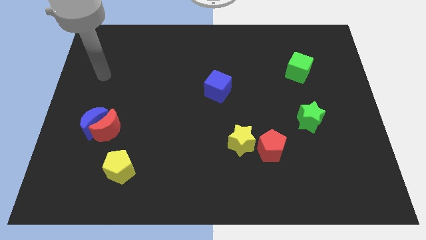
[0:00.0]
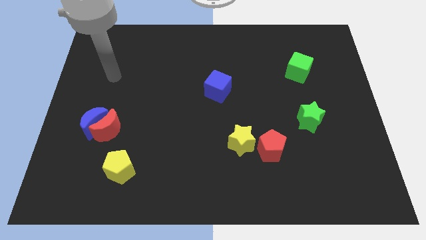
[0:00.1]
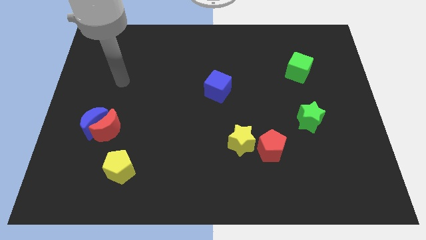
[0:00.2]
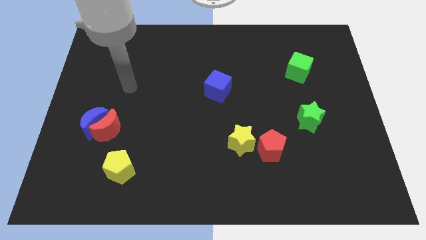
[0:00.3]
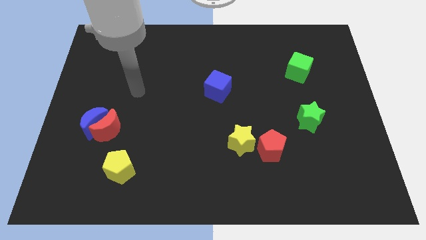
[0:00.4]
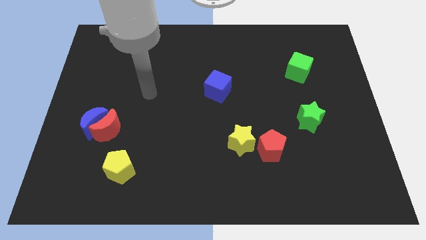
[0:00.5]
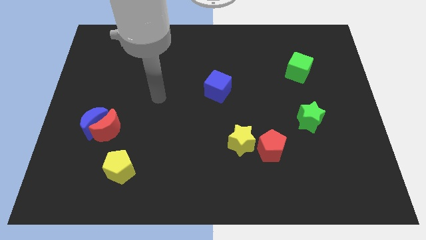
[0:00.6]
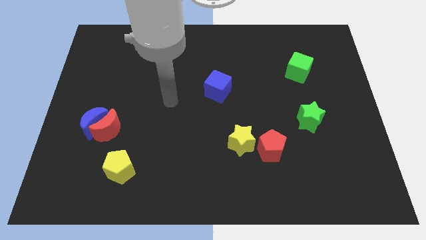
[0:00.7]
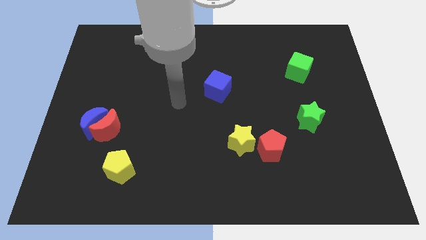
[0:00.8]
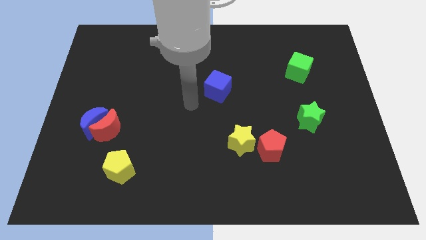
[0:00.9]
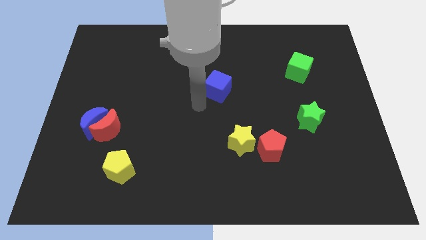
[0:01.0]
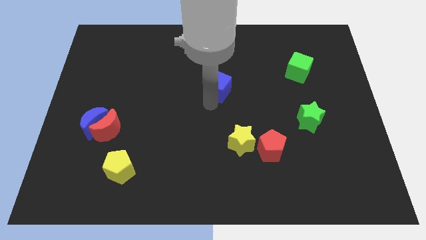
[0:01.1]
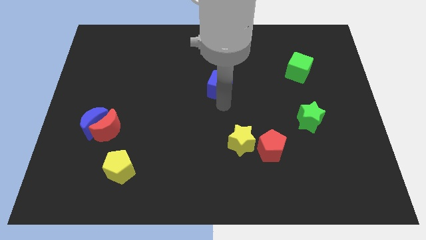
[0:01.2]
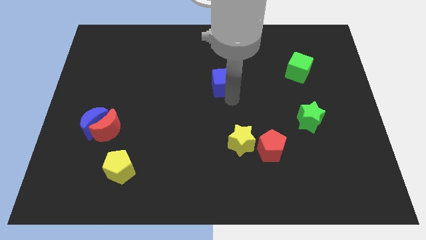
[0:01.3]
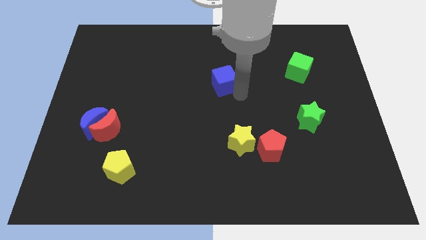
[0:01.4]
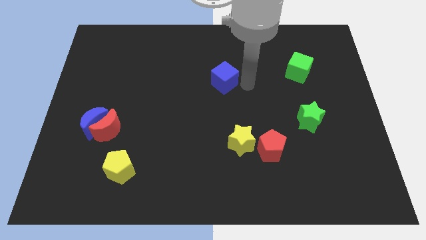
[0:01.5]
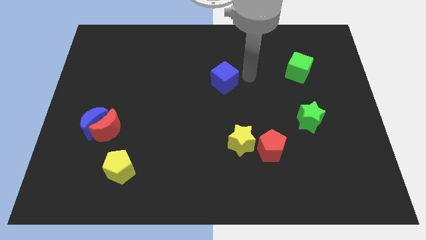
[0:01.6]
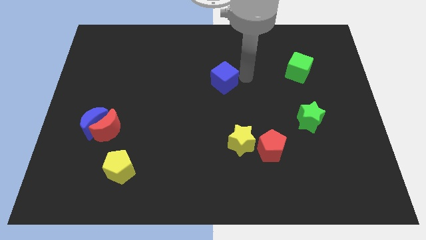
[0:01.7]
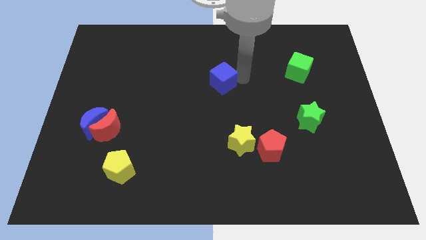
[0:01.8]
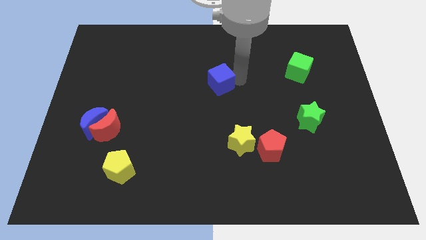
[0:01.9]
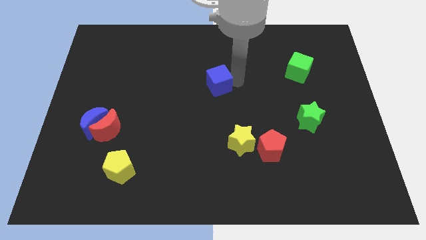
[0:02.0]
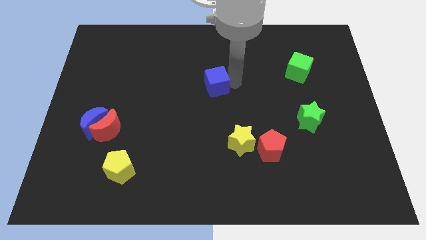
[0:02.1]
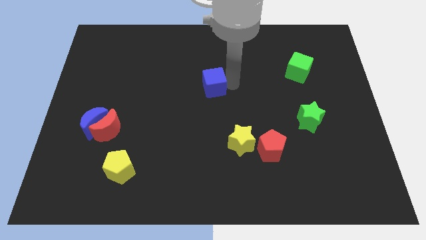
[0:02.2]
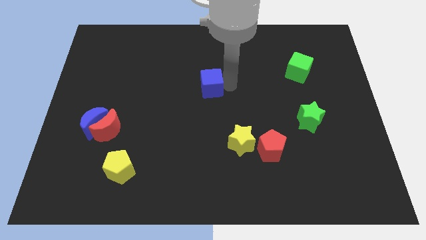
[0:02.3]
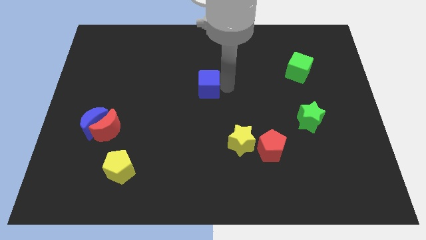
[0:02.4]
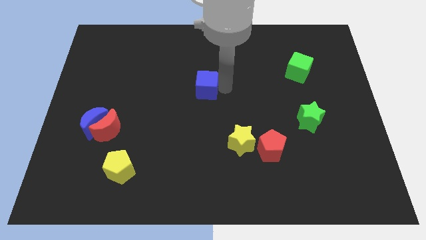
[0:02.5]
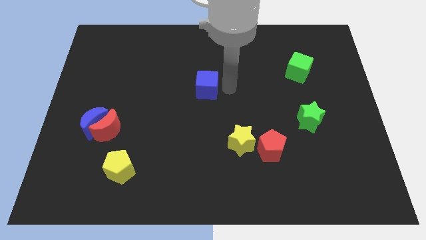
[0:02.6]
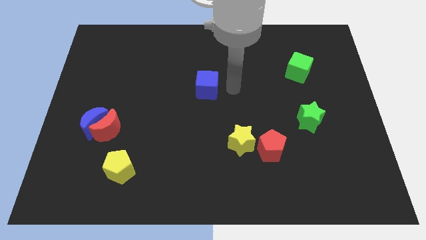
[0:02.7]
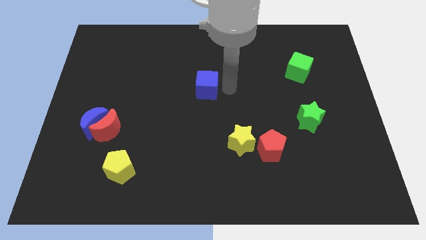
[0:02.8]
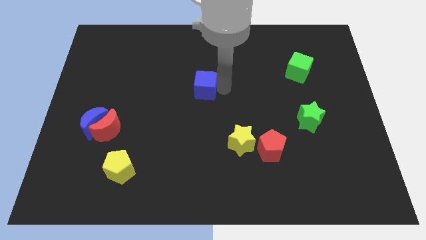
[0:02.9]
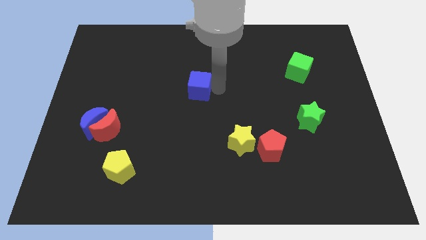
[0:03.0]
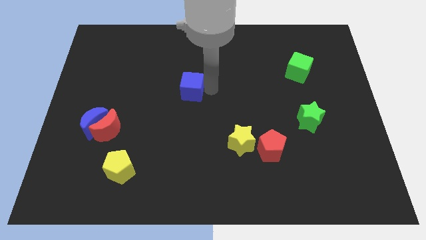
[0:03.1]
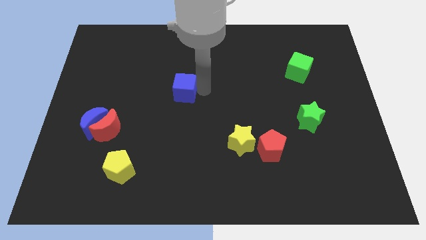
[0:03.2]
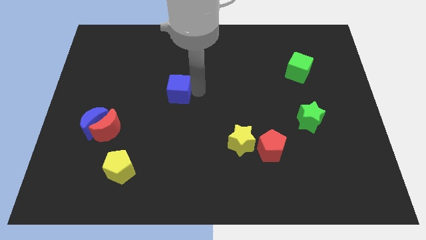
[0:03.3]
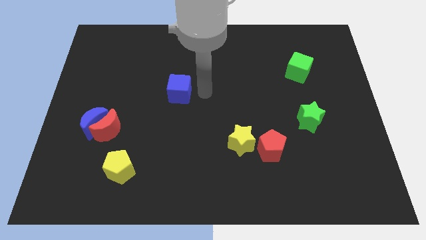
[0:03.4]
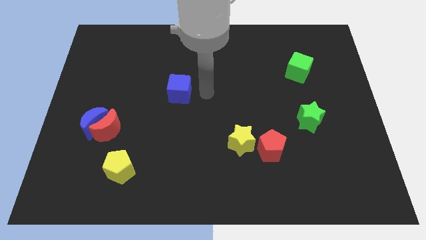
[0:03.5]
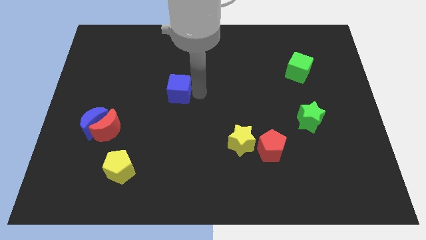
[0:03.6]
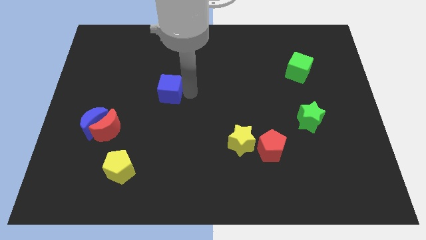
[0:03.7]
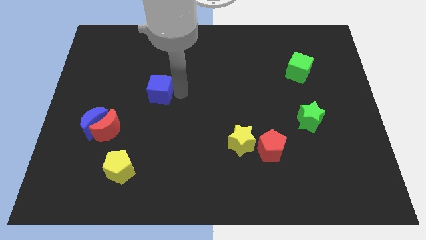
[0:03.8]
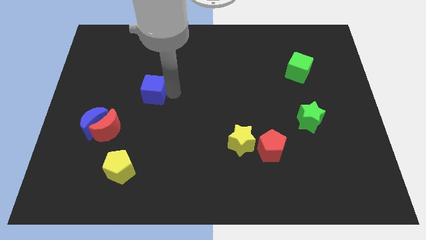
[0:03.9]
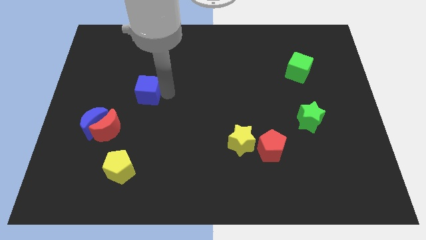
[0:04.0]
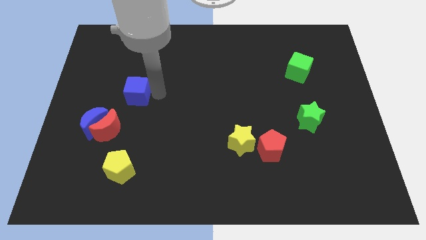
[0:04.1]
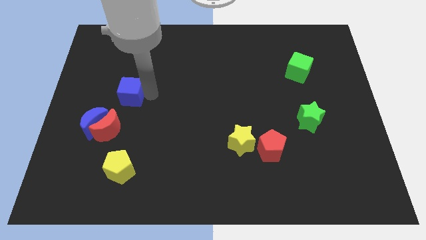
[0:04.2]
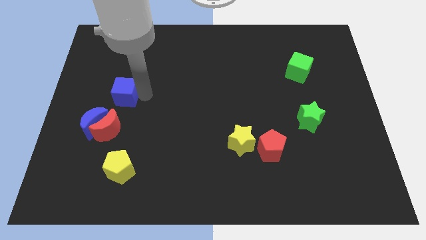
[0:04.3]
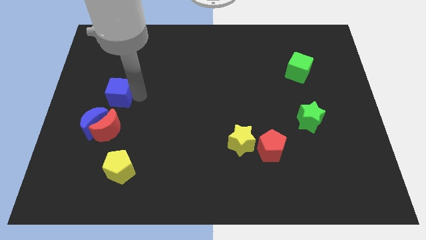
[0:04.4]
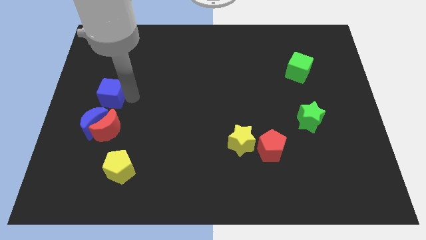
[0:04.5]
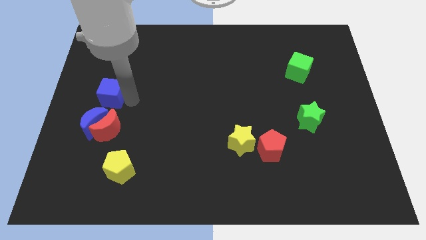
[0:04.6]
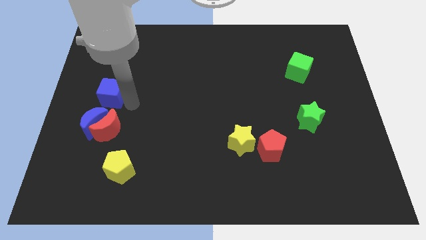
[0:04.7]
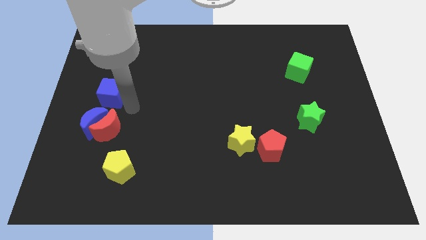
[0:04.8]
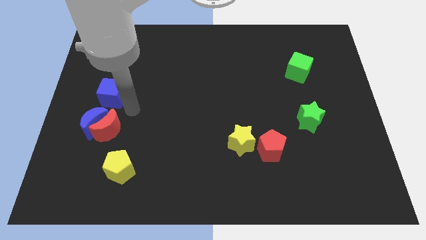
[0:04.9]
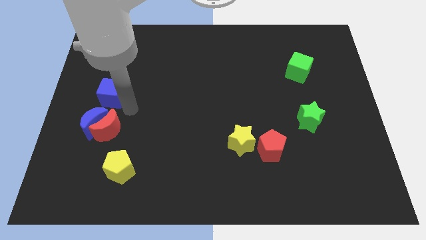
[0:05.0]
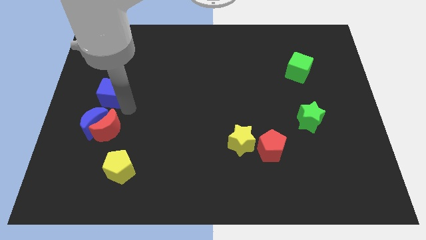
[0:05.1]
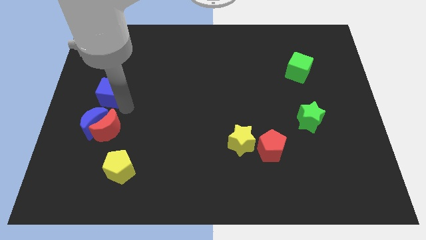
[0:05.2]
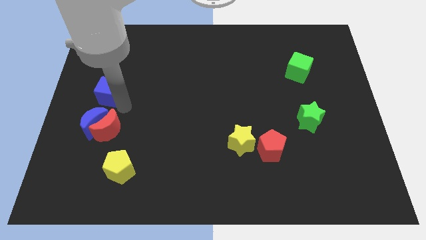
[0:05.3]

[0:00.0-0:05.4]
push the blue cube to the left side of the board

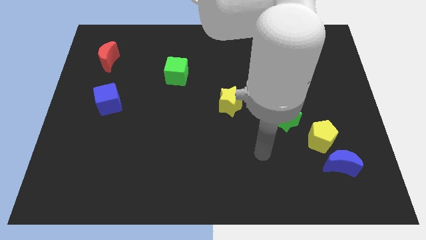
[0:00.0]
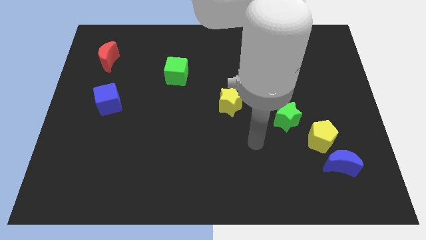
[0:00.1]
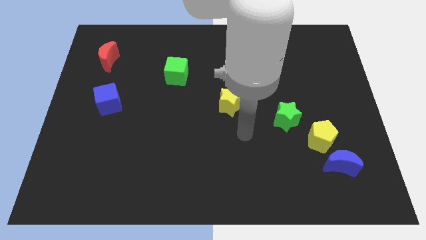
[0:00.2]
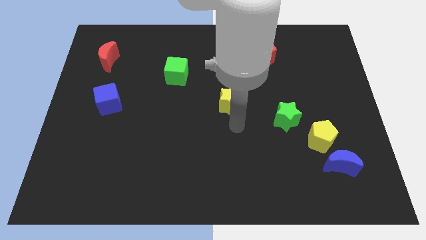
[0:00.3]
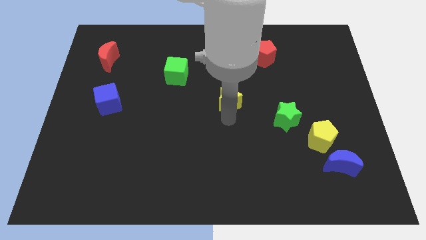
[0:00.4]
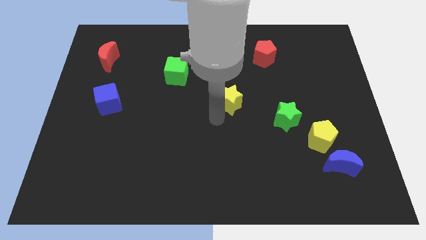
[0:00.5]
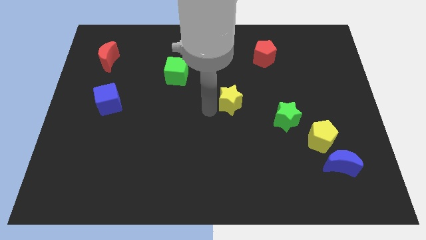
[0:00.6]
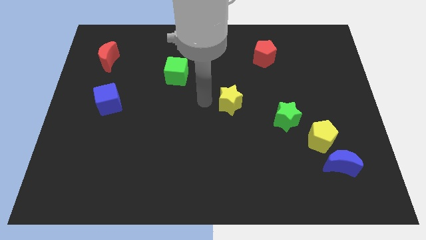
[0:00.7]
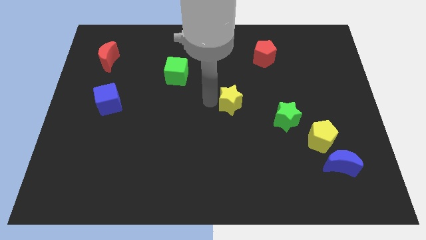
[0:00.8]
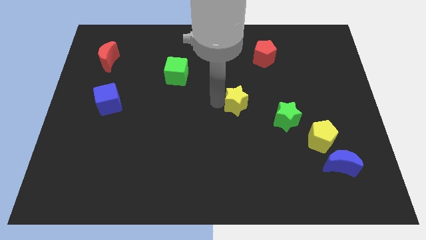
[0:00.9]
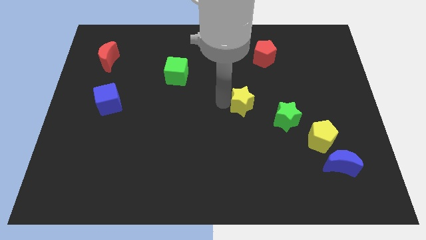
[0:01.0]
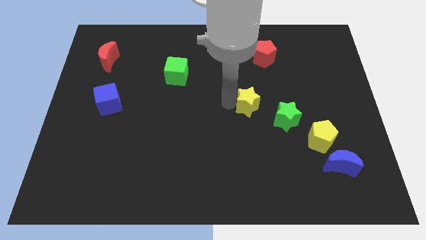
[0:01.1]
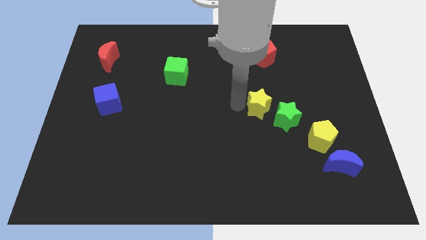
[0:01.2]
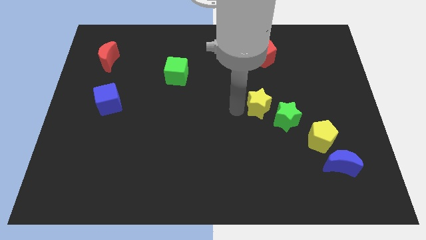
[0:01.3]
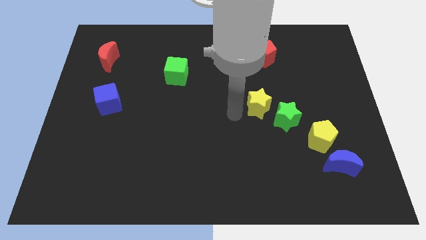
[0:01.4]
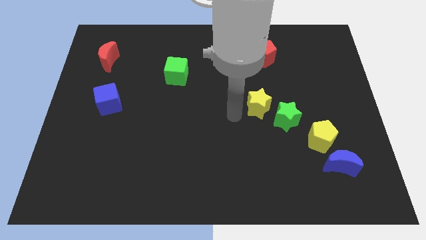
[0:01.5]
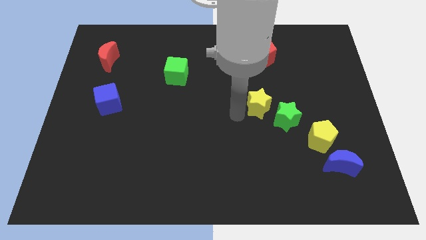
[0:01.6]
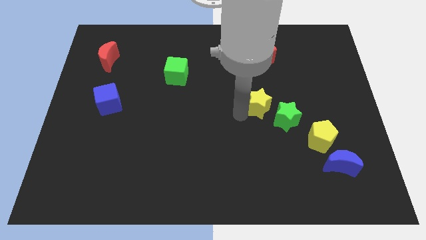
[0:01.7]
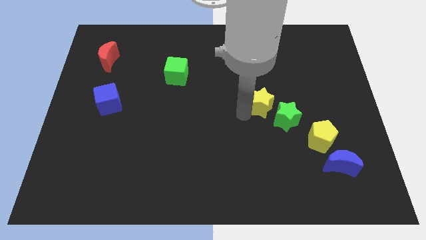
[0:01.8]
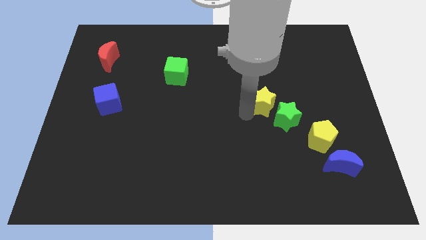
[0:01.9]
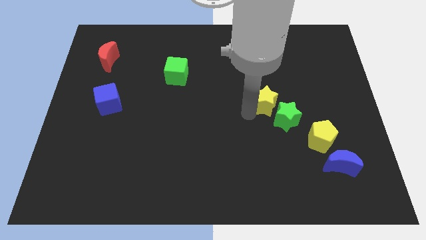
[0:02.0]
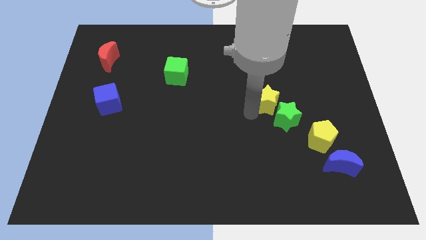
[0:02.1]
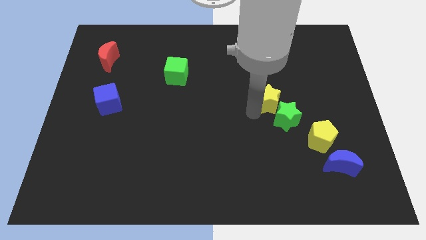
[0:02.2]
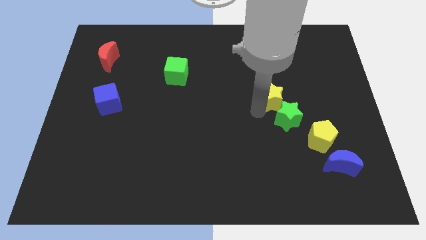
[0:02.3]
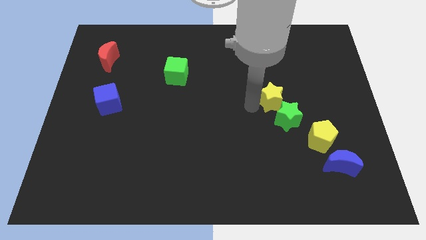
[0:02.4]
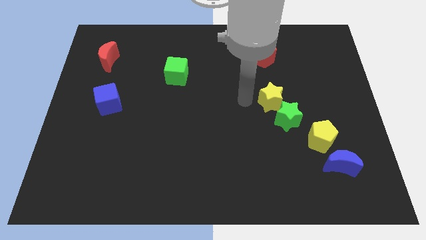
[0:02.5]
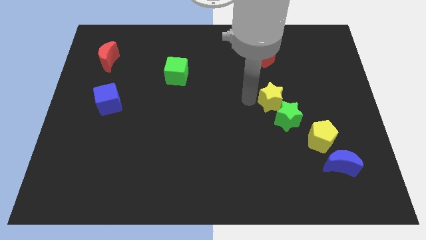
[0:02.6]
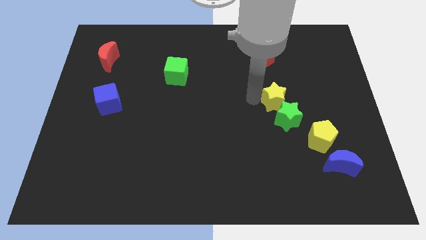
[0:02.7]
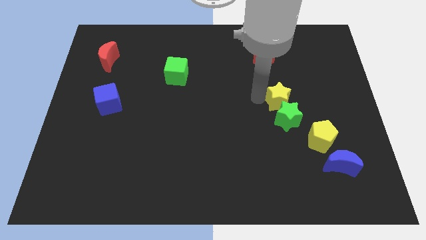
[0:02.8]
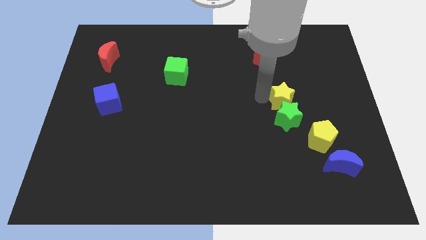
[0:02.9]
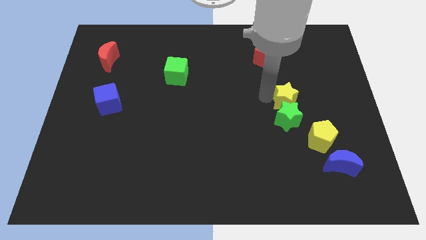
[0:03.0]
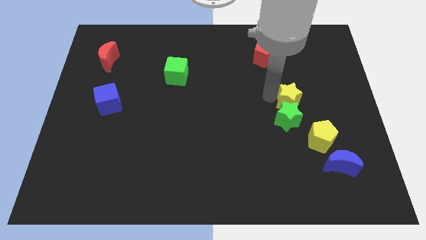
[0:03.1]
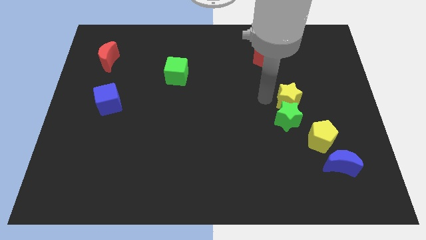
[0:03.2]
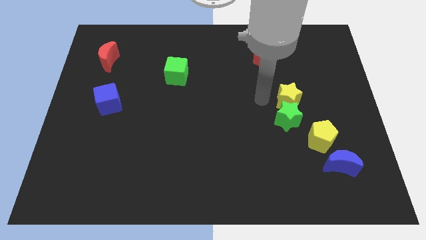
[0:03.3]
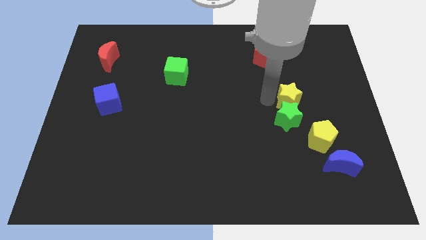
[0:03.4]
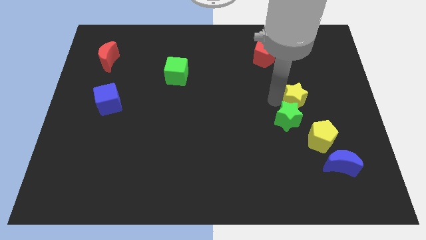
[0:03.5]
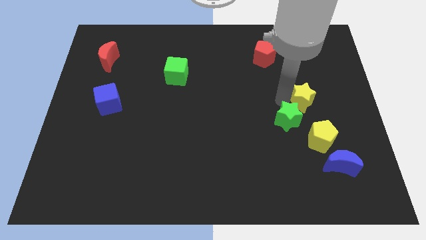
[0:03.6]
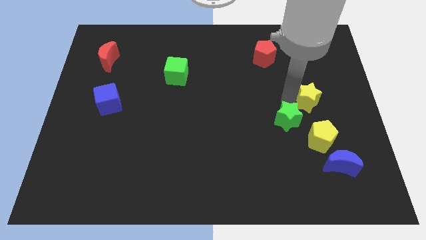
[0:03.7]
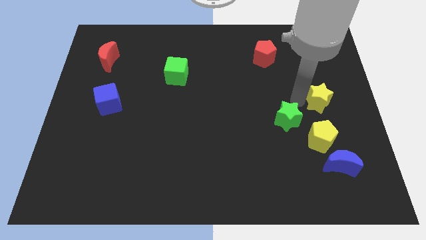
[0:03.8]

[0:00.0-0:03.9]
push the yellow star to the right side of the board
